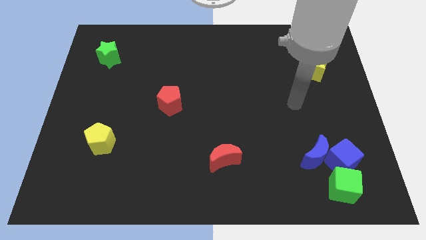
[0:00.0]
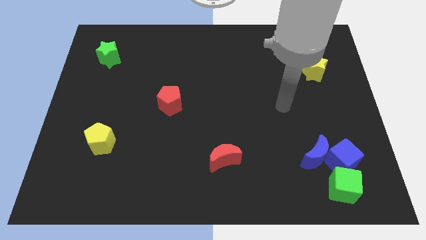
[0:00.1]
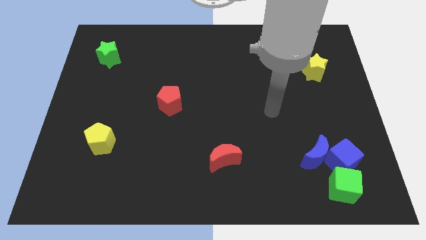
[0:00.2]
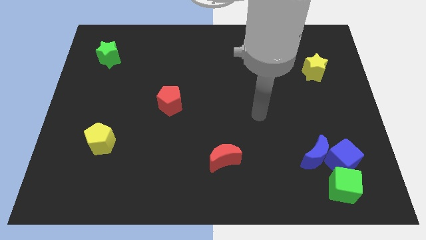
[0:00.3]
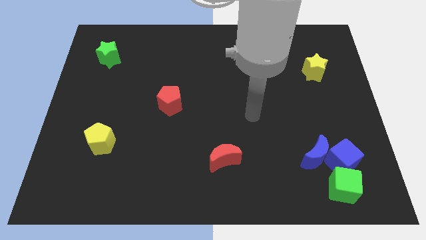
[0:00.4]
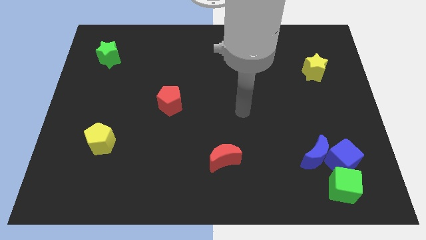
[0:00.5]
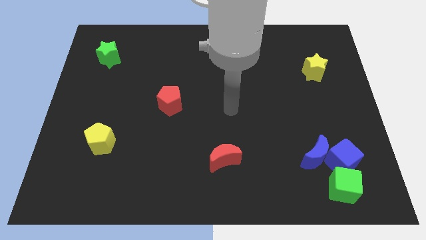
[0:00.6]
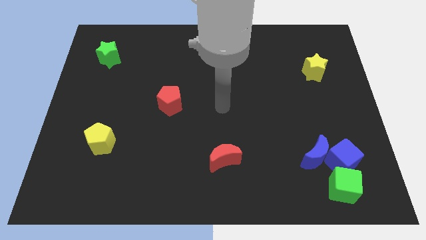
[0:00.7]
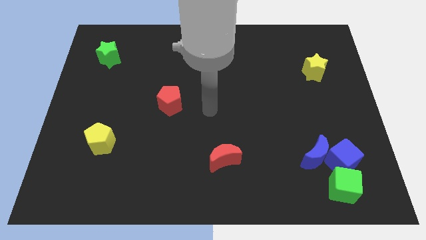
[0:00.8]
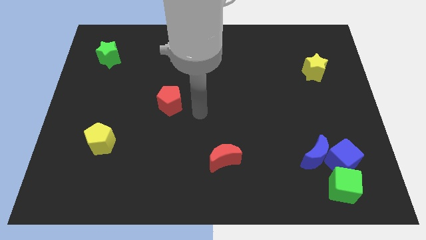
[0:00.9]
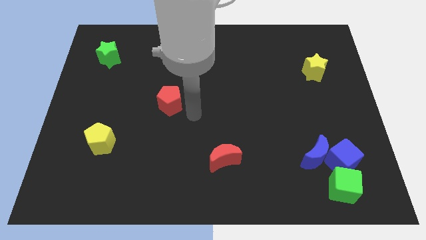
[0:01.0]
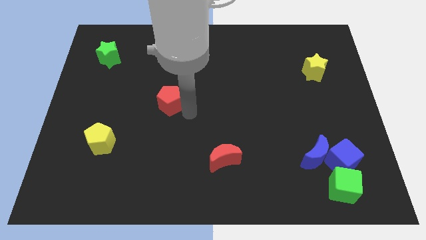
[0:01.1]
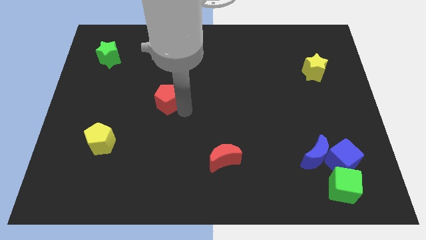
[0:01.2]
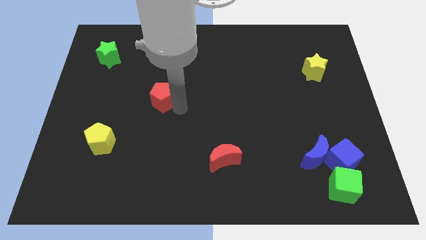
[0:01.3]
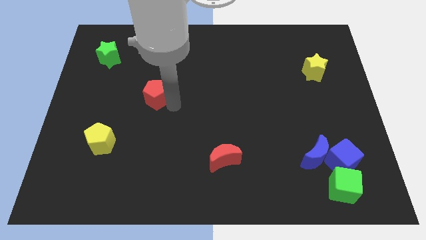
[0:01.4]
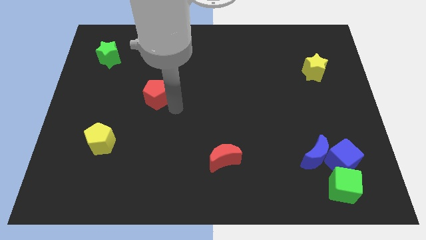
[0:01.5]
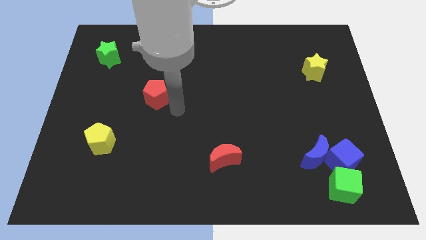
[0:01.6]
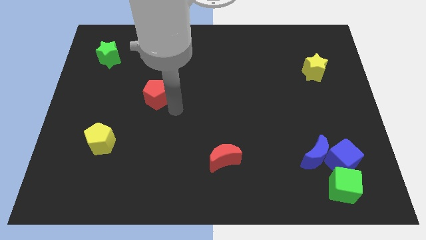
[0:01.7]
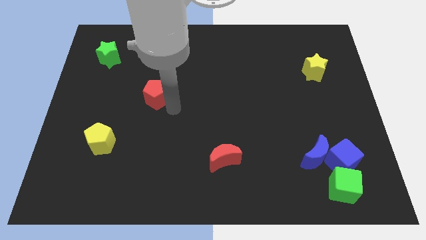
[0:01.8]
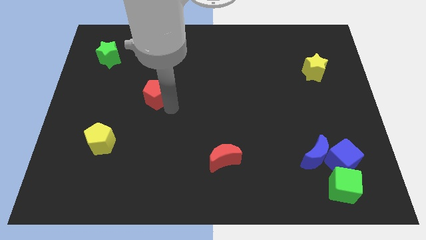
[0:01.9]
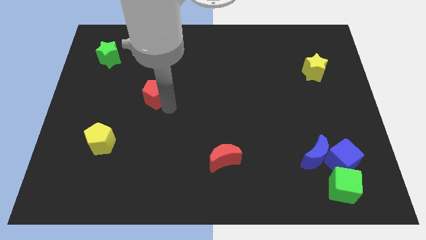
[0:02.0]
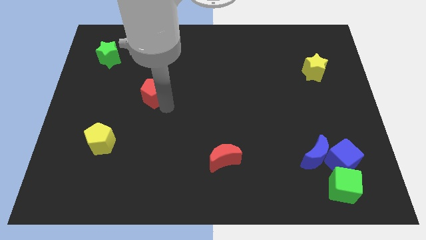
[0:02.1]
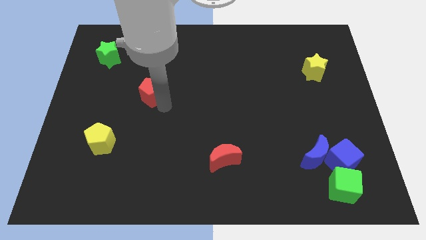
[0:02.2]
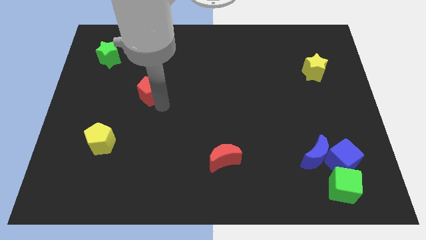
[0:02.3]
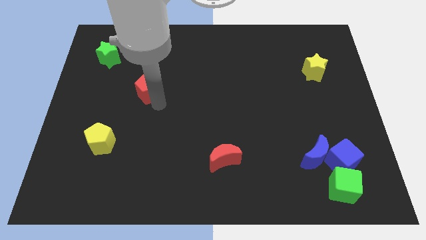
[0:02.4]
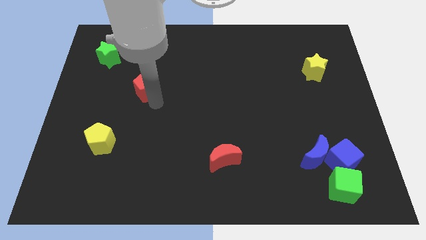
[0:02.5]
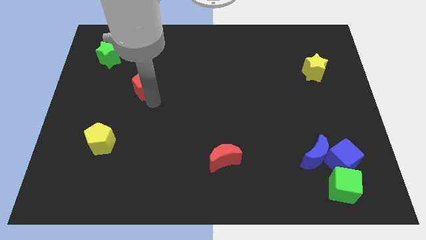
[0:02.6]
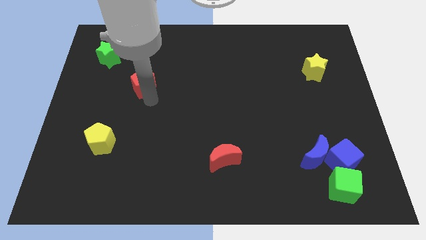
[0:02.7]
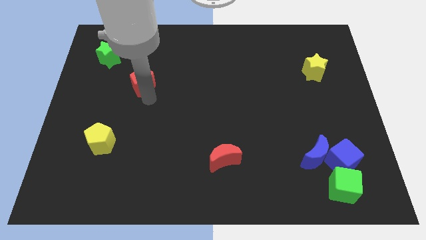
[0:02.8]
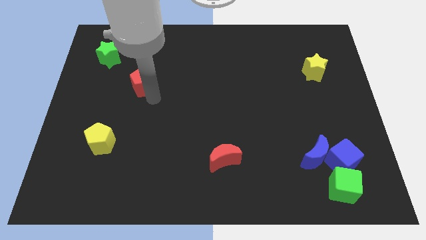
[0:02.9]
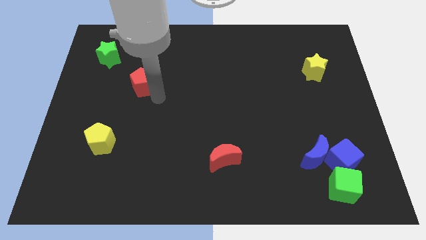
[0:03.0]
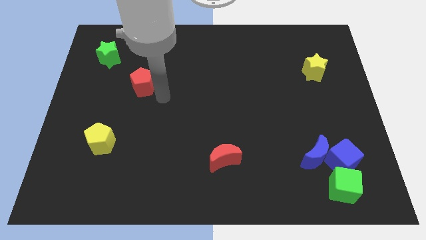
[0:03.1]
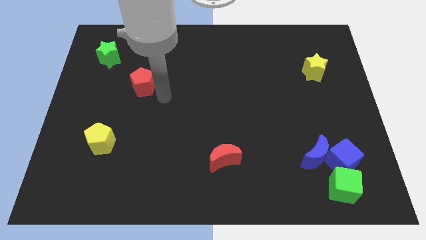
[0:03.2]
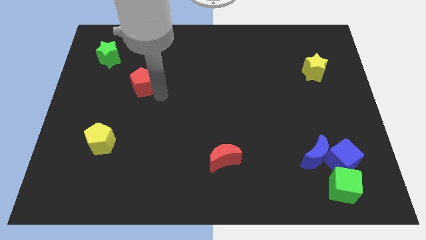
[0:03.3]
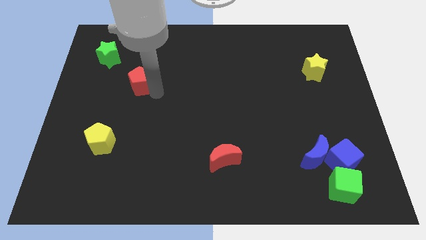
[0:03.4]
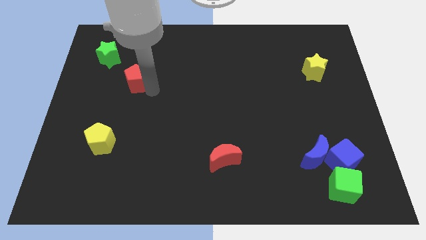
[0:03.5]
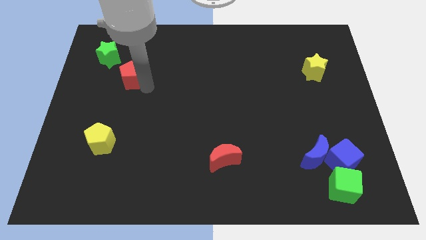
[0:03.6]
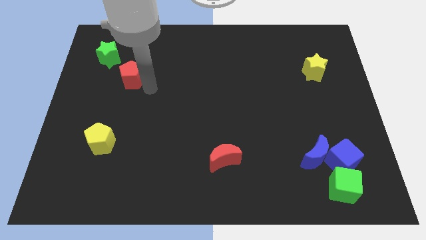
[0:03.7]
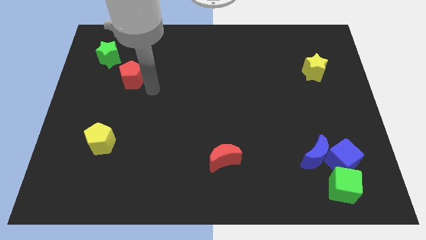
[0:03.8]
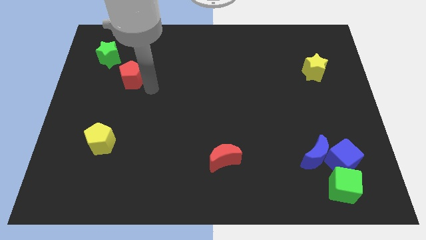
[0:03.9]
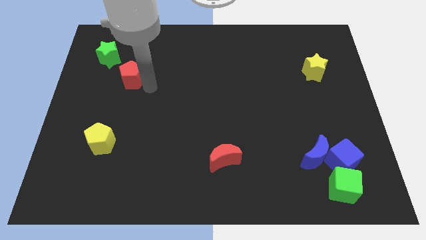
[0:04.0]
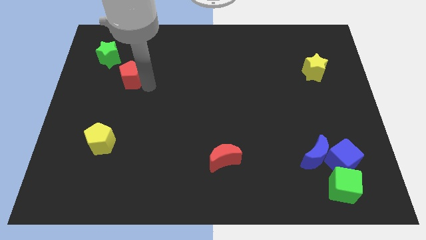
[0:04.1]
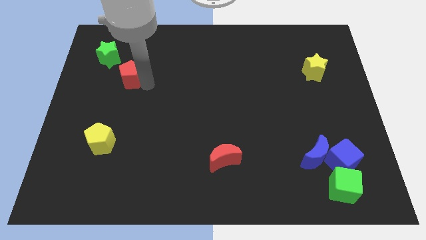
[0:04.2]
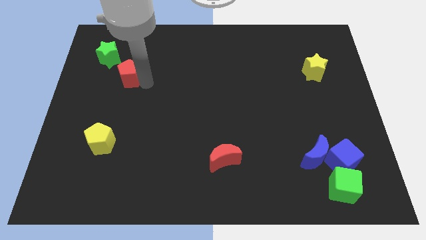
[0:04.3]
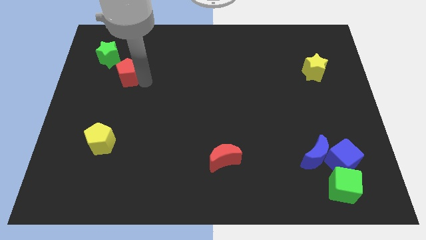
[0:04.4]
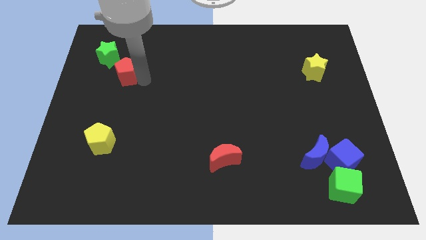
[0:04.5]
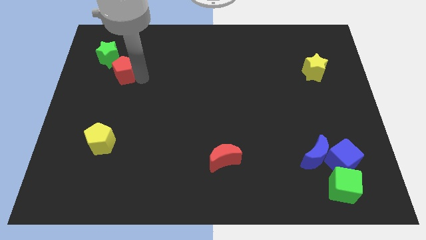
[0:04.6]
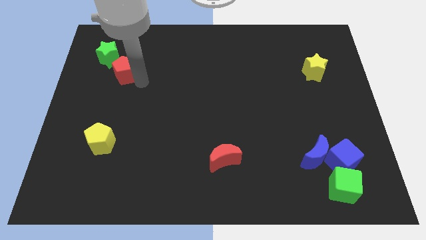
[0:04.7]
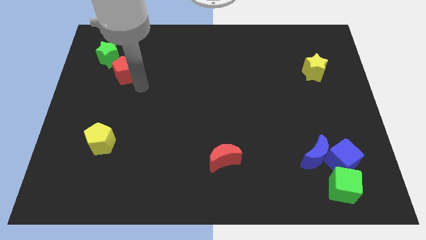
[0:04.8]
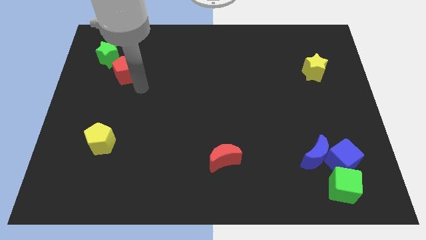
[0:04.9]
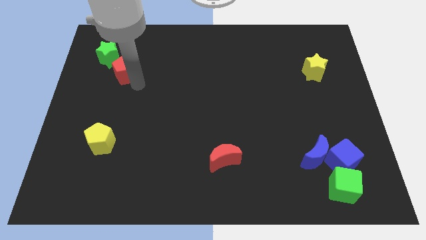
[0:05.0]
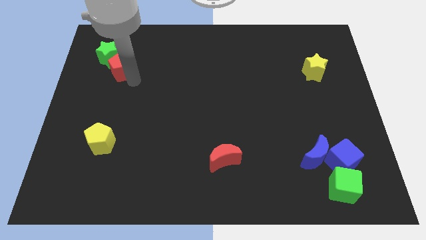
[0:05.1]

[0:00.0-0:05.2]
move the red pentagon to the green star

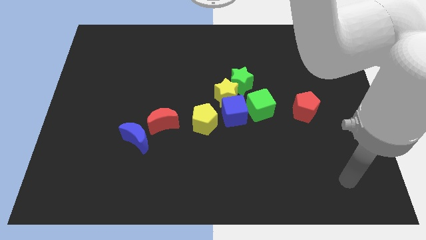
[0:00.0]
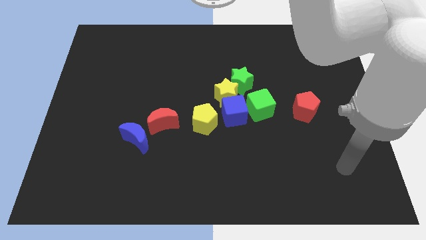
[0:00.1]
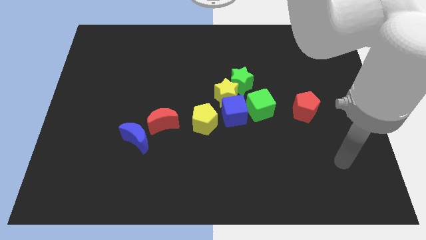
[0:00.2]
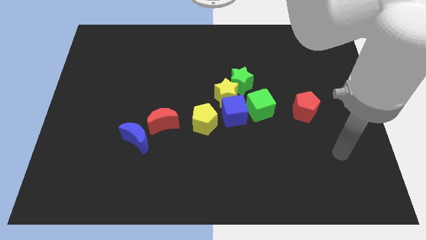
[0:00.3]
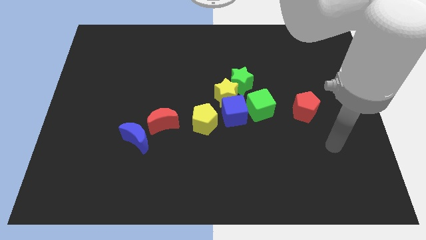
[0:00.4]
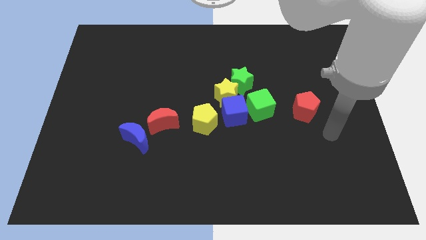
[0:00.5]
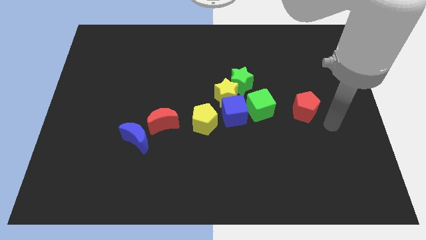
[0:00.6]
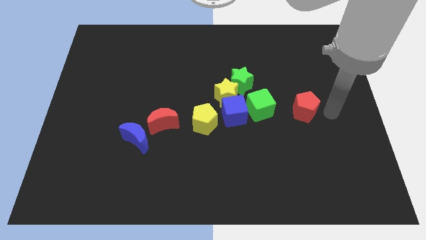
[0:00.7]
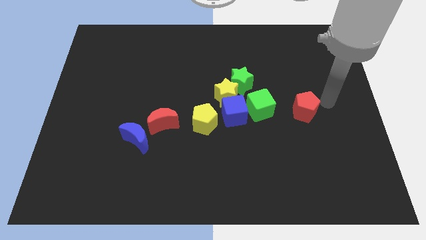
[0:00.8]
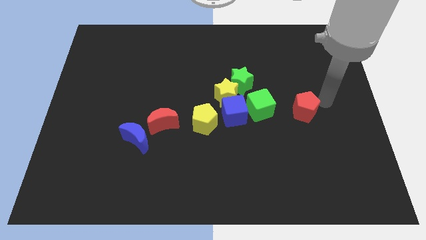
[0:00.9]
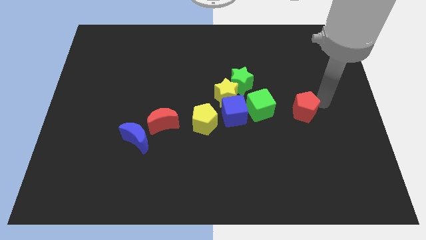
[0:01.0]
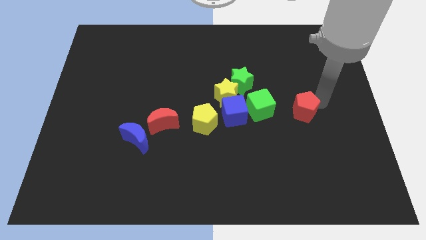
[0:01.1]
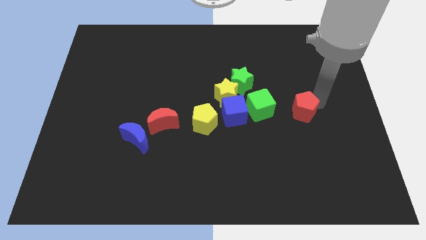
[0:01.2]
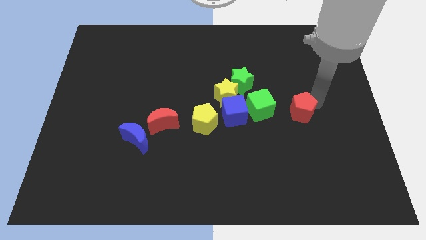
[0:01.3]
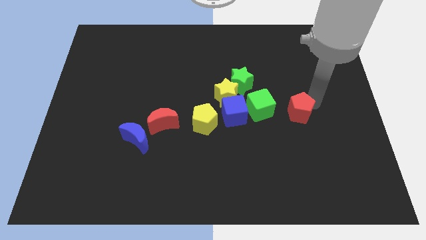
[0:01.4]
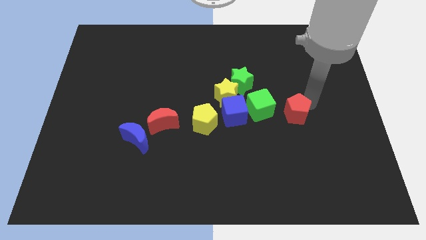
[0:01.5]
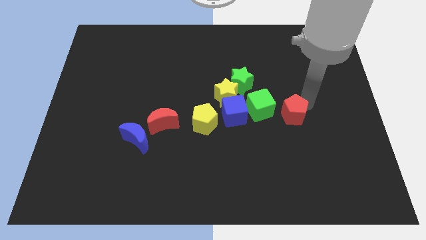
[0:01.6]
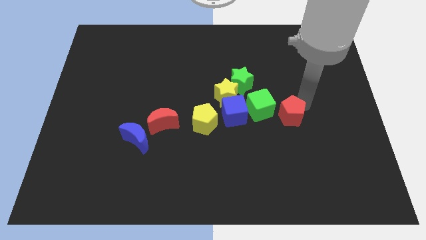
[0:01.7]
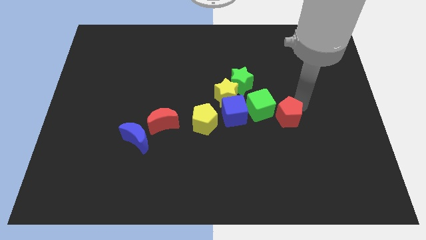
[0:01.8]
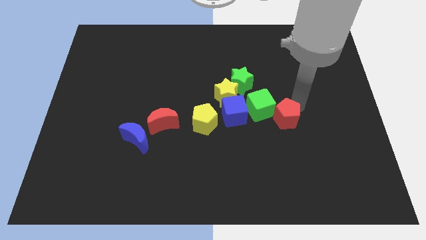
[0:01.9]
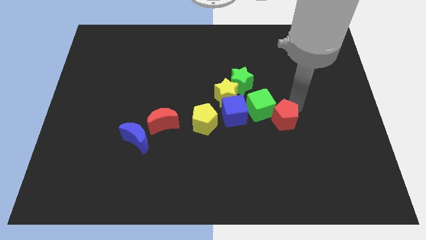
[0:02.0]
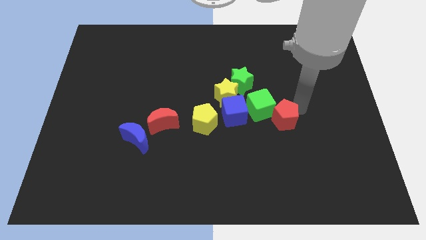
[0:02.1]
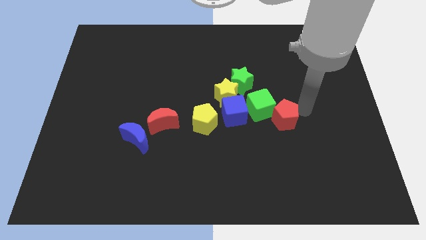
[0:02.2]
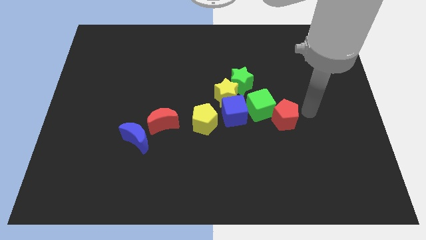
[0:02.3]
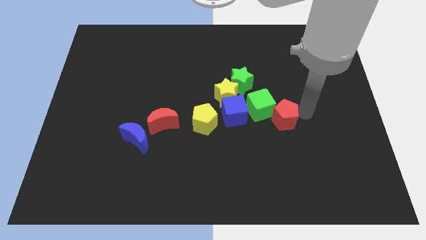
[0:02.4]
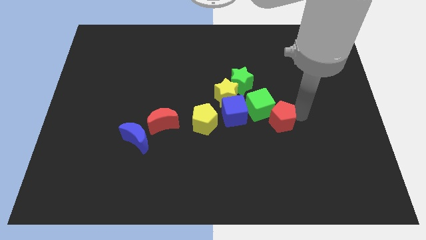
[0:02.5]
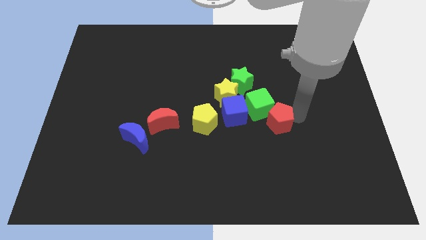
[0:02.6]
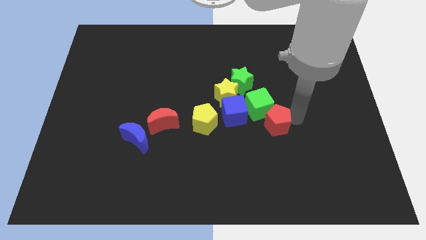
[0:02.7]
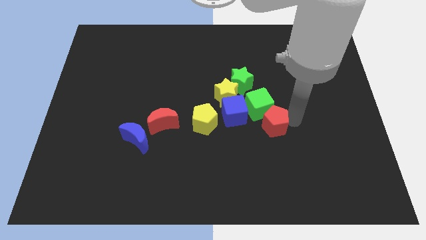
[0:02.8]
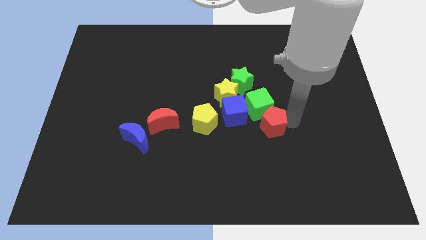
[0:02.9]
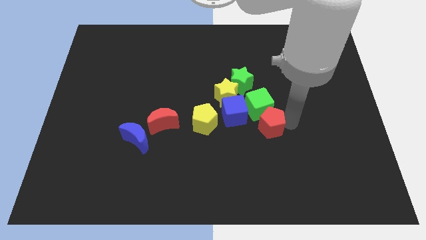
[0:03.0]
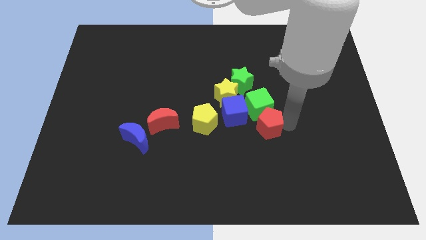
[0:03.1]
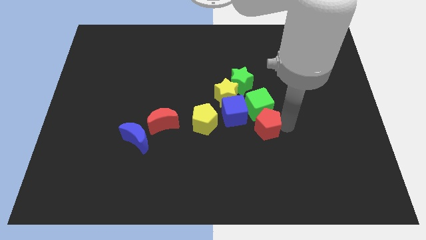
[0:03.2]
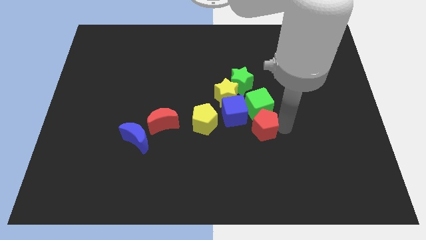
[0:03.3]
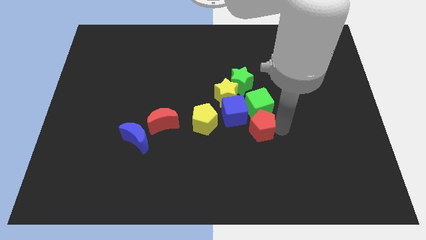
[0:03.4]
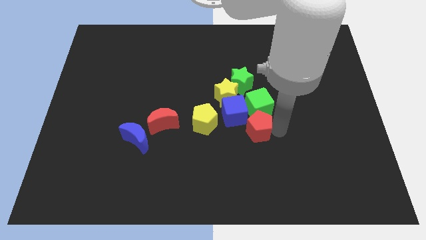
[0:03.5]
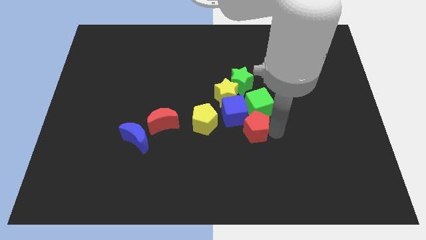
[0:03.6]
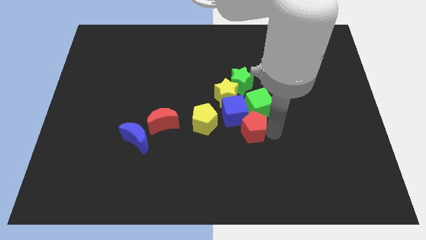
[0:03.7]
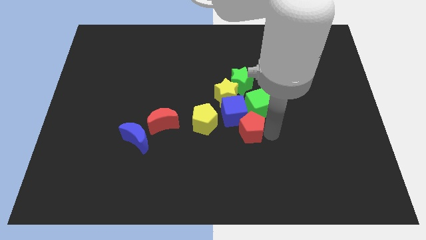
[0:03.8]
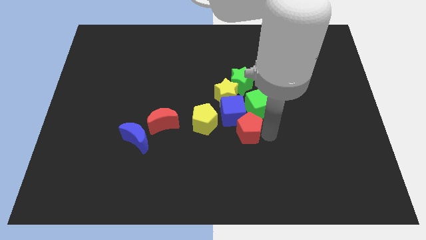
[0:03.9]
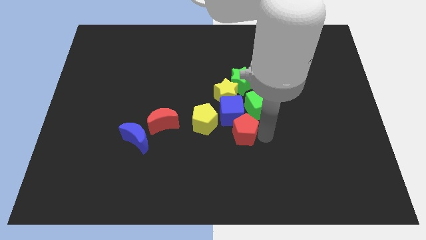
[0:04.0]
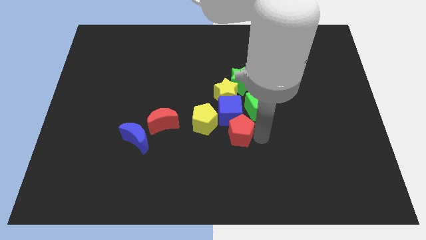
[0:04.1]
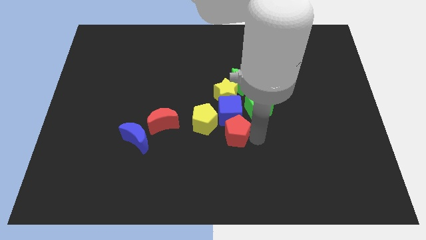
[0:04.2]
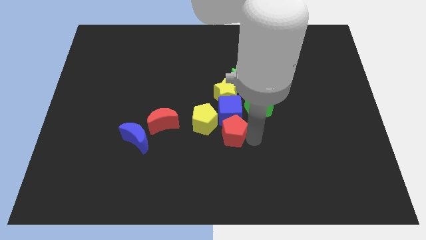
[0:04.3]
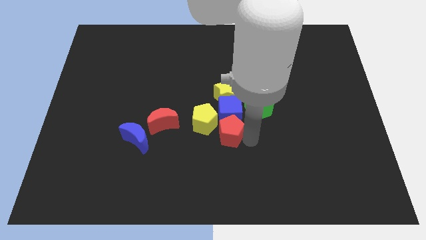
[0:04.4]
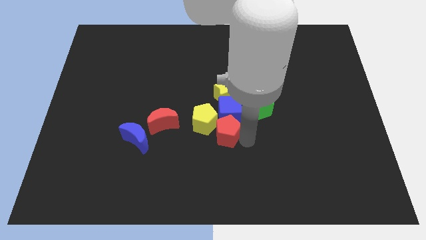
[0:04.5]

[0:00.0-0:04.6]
slide the red pentagon to the yellow pentagon
